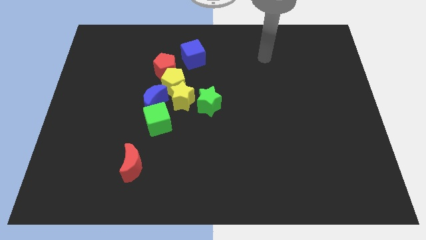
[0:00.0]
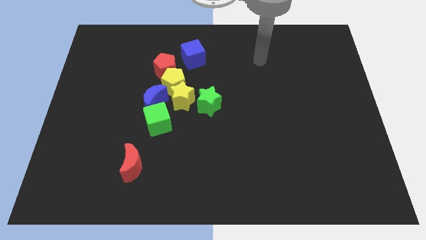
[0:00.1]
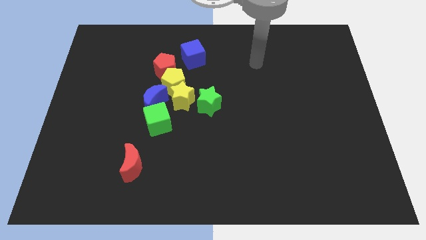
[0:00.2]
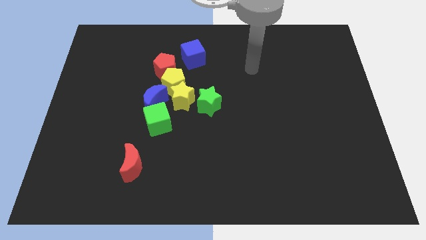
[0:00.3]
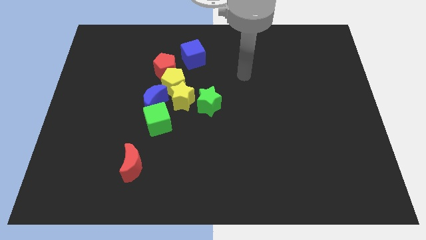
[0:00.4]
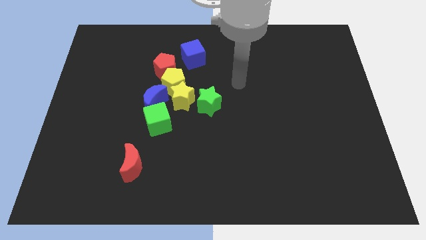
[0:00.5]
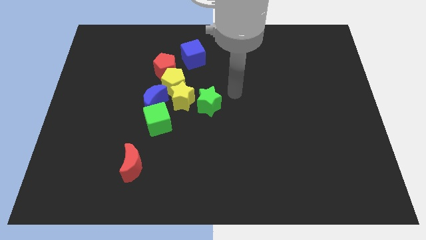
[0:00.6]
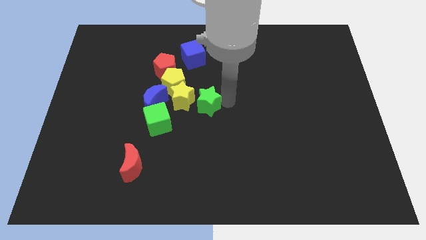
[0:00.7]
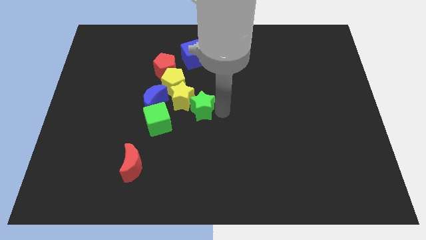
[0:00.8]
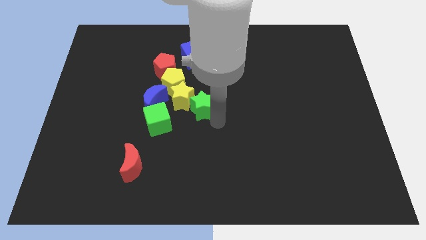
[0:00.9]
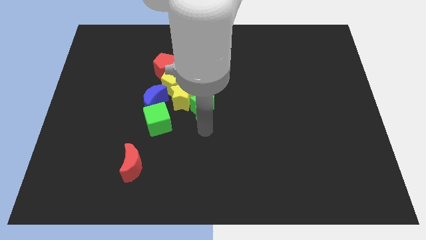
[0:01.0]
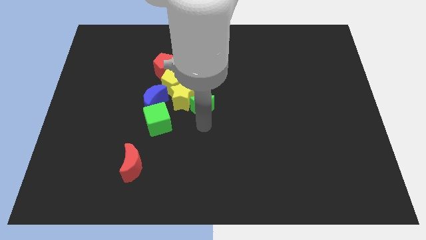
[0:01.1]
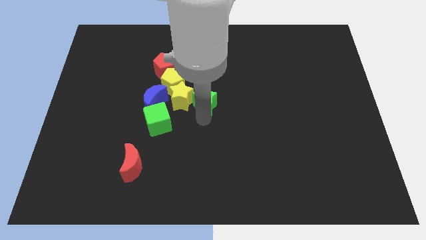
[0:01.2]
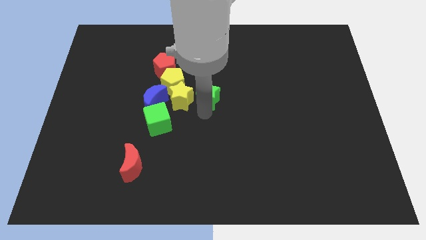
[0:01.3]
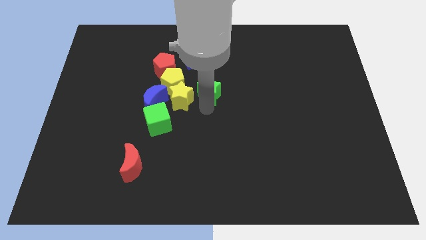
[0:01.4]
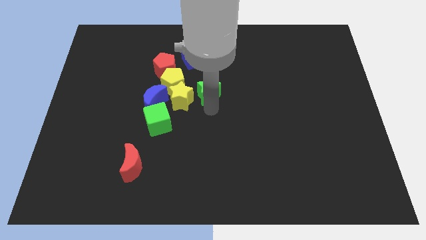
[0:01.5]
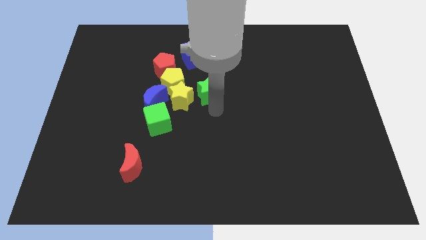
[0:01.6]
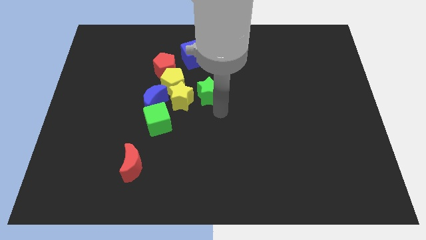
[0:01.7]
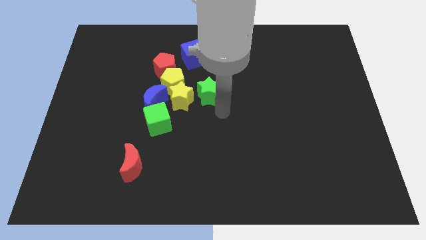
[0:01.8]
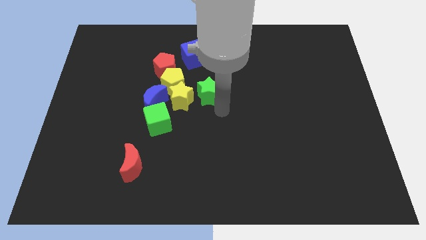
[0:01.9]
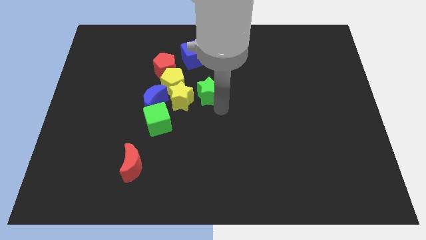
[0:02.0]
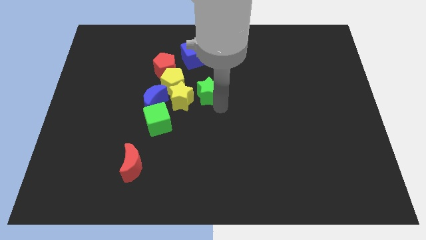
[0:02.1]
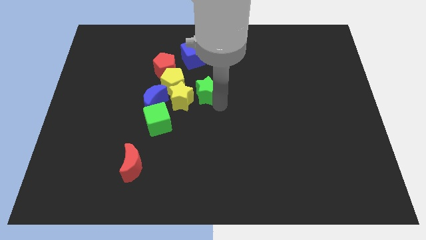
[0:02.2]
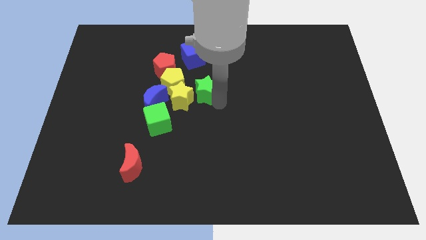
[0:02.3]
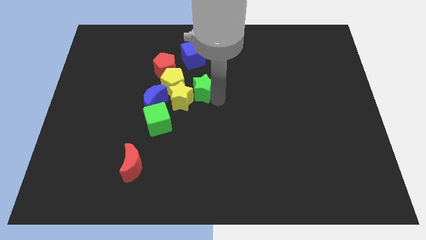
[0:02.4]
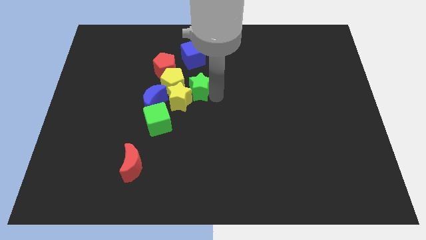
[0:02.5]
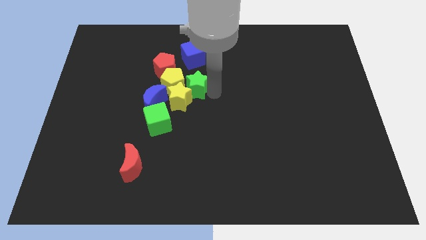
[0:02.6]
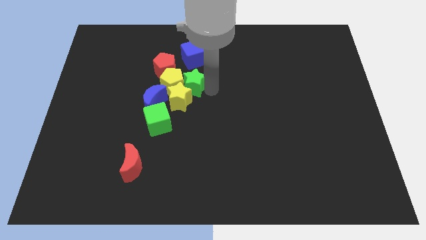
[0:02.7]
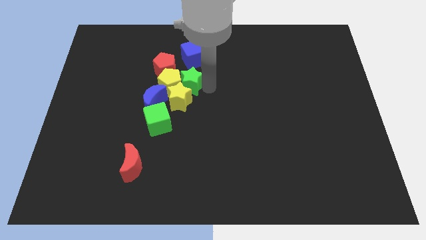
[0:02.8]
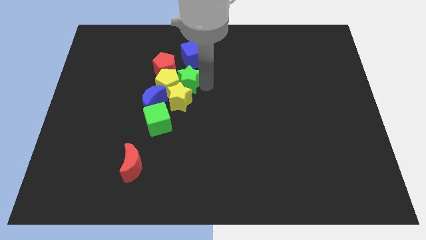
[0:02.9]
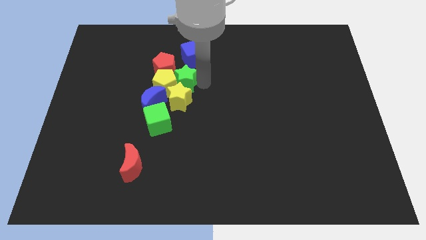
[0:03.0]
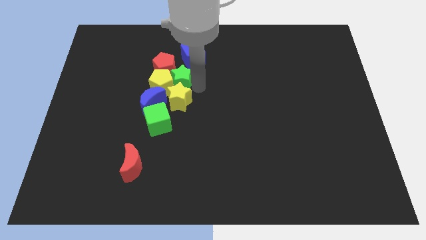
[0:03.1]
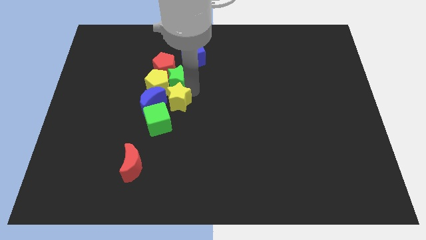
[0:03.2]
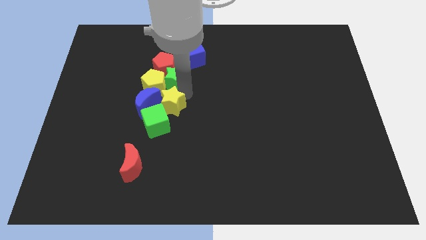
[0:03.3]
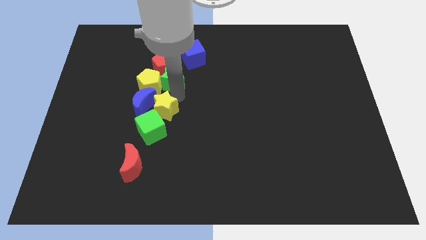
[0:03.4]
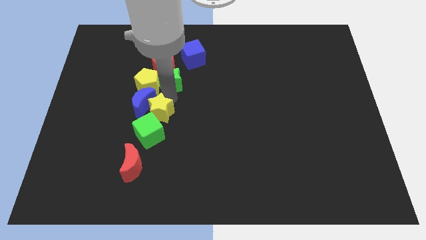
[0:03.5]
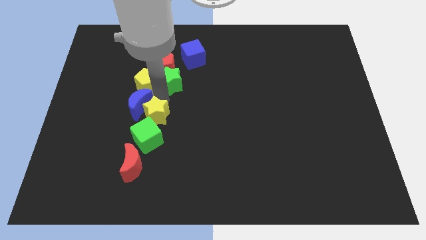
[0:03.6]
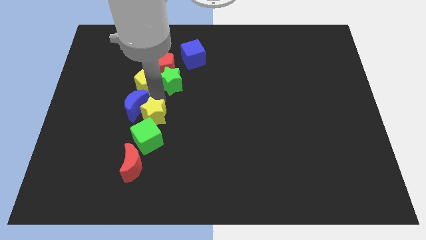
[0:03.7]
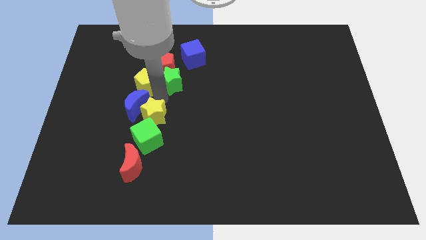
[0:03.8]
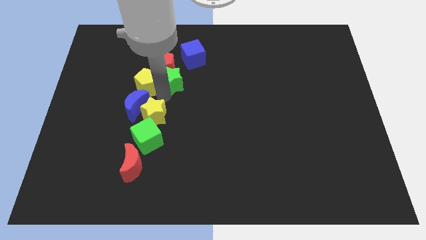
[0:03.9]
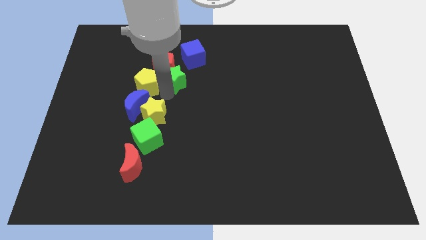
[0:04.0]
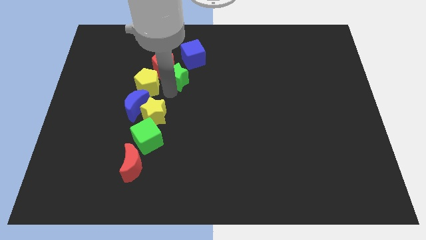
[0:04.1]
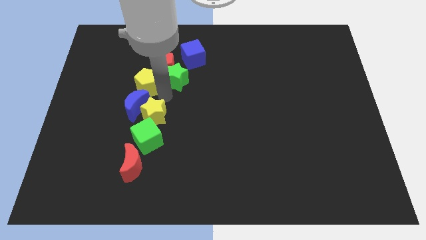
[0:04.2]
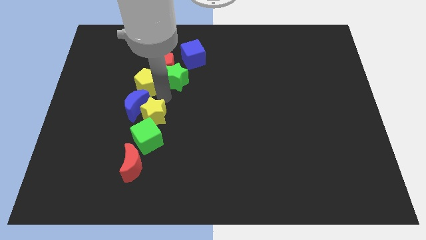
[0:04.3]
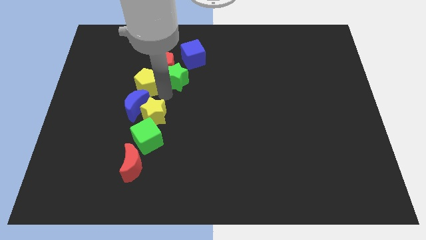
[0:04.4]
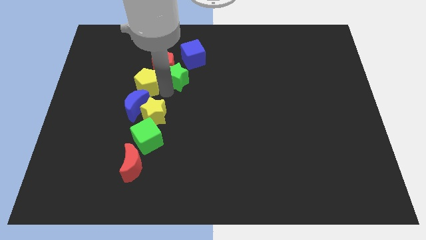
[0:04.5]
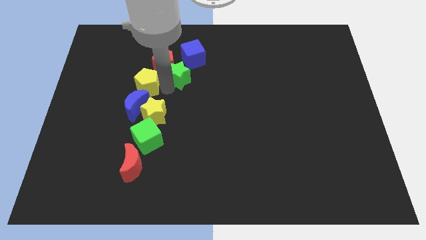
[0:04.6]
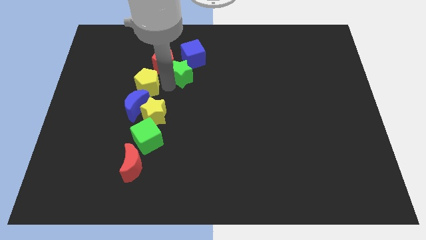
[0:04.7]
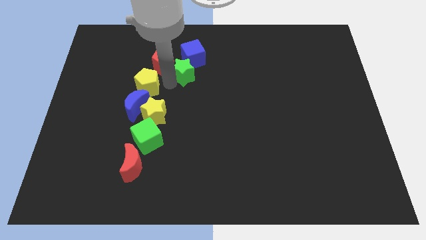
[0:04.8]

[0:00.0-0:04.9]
move the green star close to the blue cube

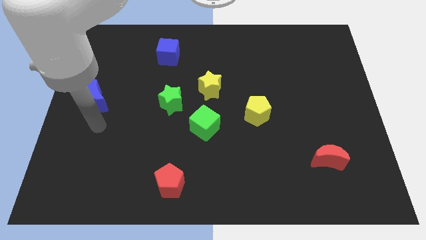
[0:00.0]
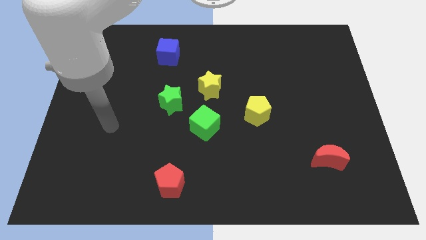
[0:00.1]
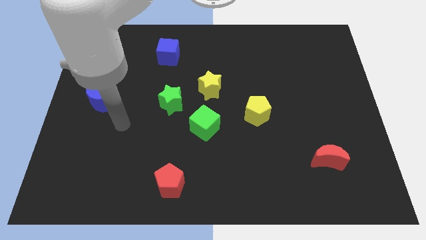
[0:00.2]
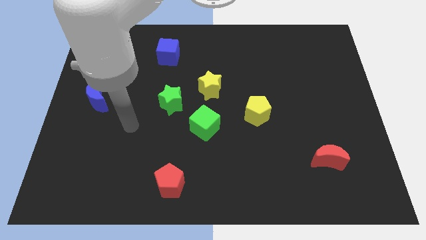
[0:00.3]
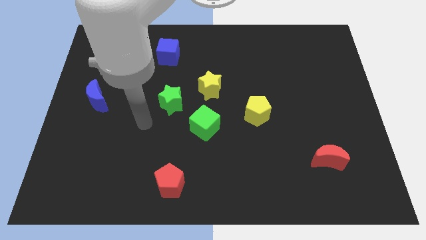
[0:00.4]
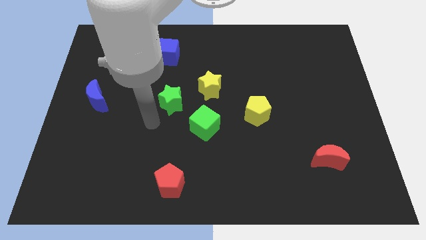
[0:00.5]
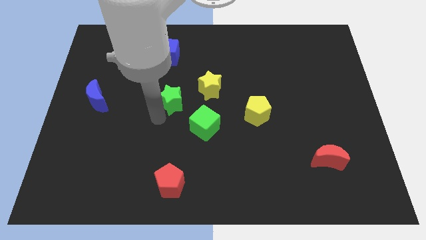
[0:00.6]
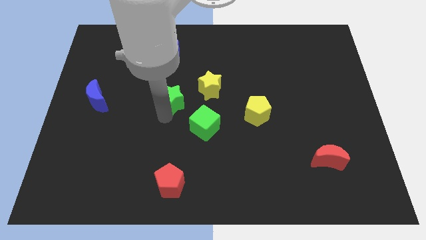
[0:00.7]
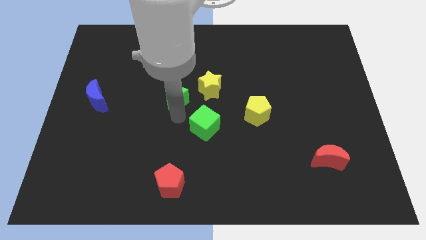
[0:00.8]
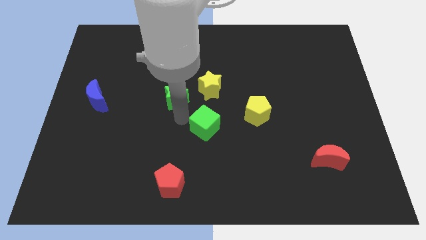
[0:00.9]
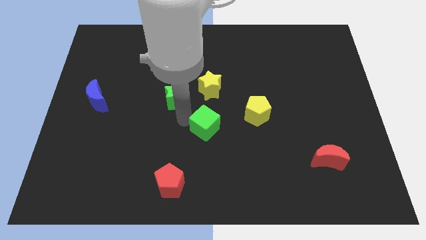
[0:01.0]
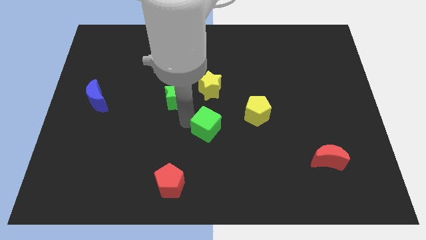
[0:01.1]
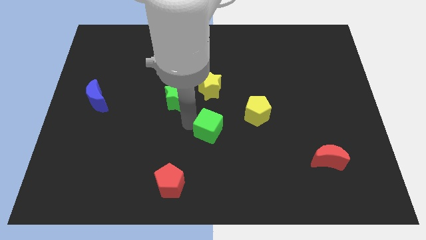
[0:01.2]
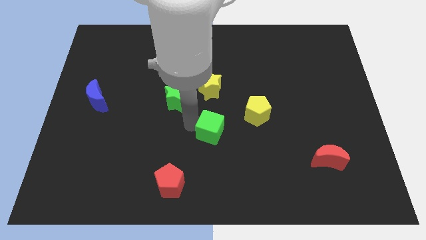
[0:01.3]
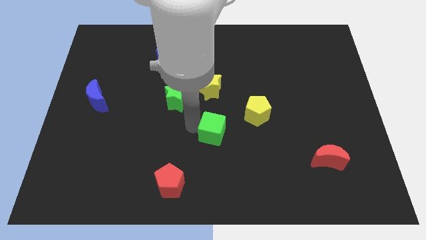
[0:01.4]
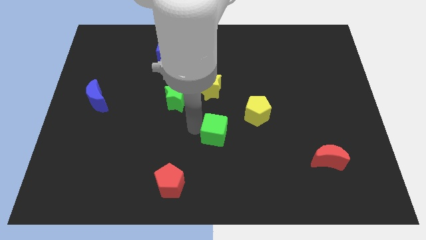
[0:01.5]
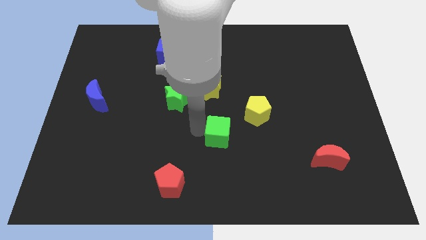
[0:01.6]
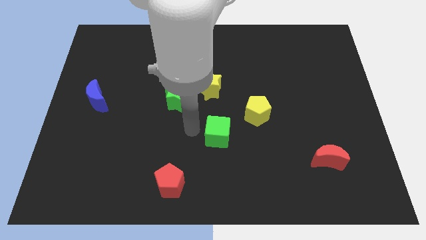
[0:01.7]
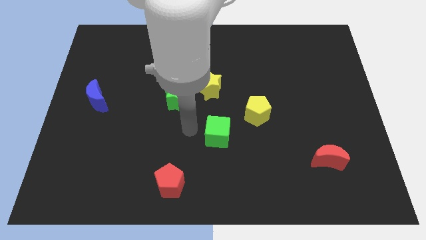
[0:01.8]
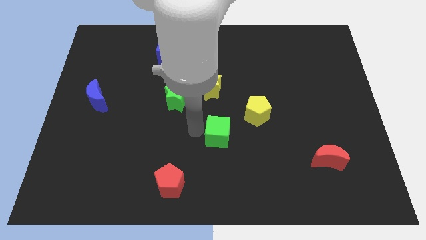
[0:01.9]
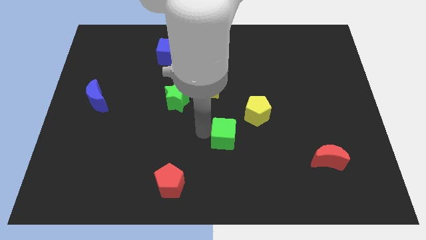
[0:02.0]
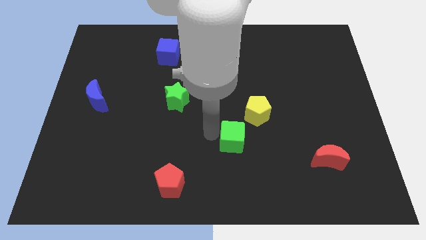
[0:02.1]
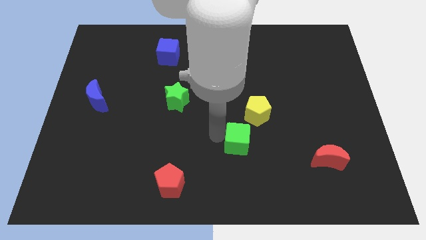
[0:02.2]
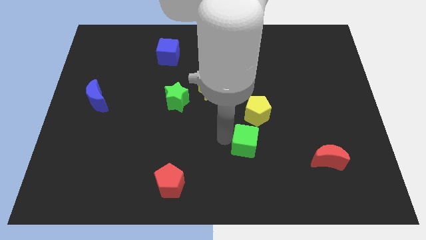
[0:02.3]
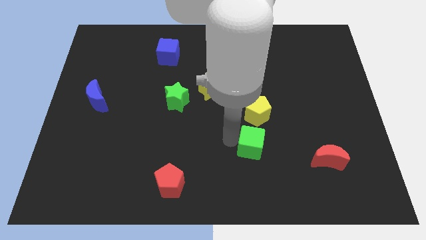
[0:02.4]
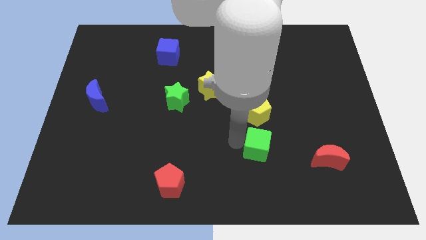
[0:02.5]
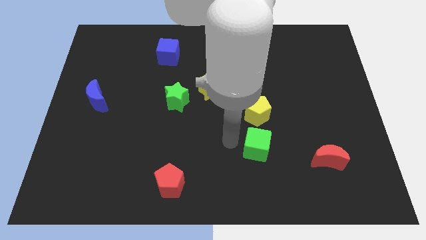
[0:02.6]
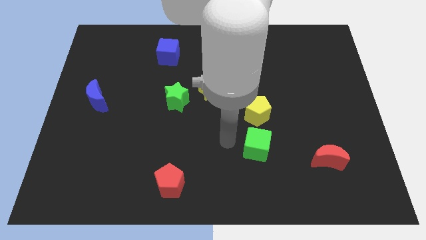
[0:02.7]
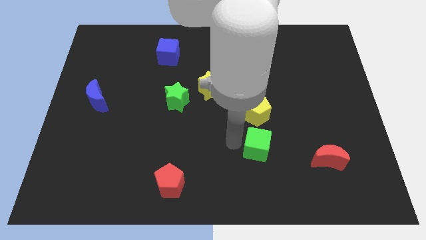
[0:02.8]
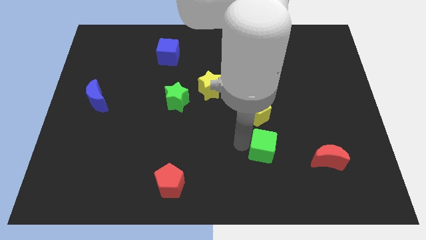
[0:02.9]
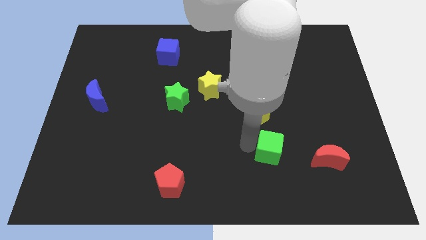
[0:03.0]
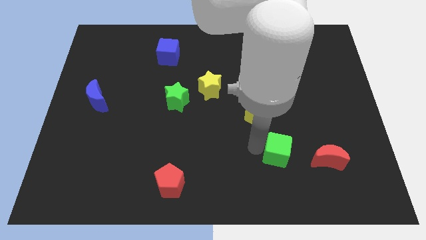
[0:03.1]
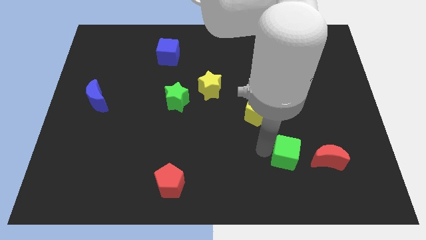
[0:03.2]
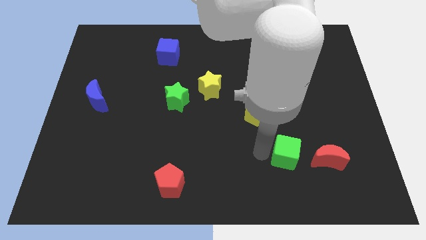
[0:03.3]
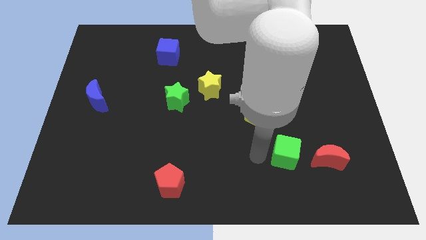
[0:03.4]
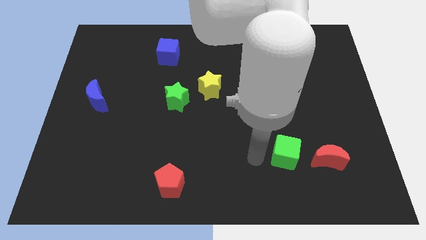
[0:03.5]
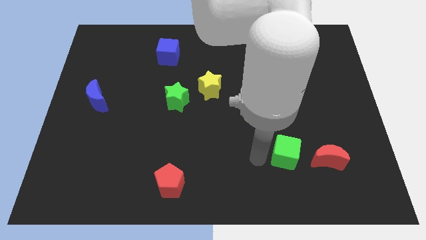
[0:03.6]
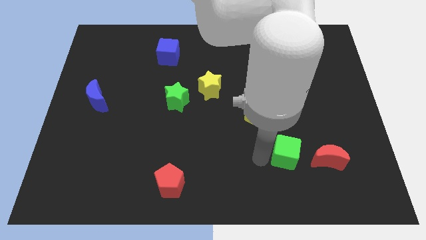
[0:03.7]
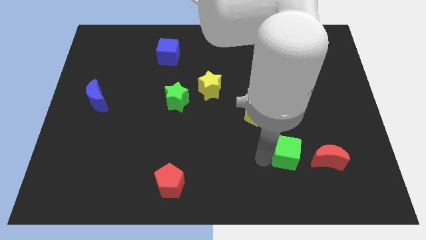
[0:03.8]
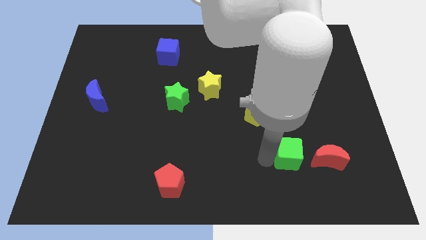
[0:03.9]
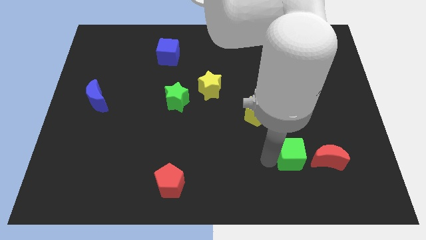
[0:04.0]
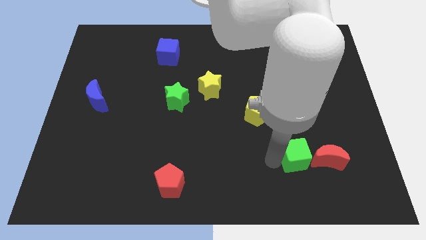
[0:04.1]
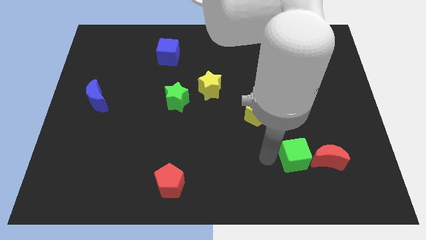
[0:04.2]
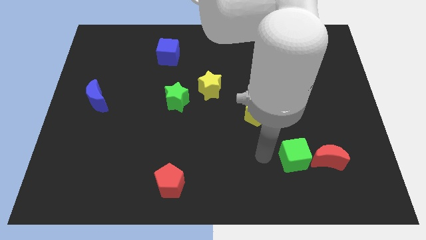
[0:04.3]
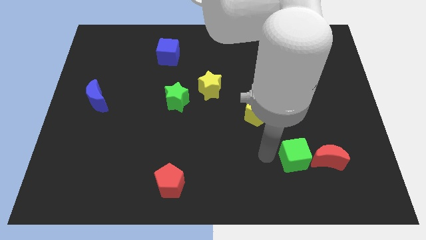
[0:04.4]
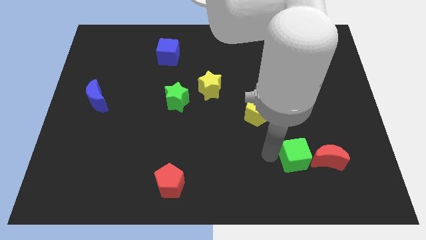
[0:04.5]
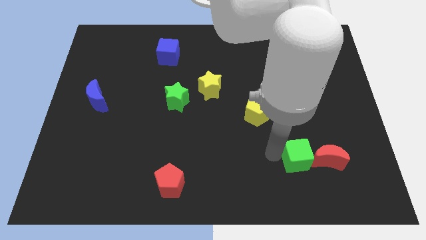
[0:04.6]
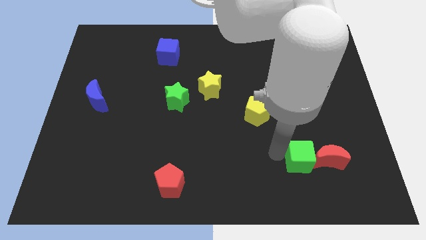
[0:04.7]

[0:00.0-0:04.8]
put the green cube next to the red moon
